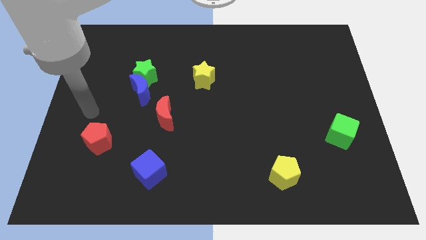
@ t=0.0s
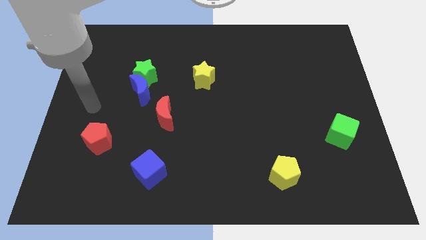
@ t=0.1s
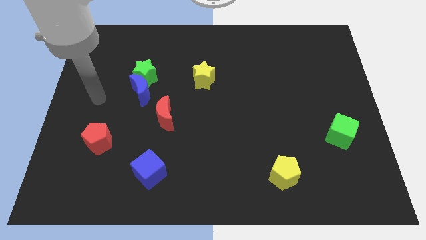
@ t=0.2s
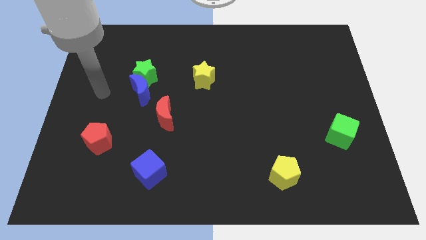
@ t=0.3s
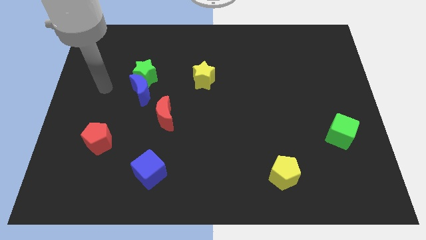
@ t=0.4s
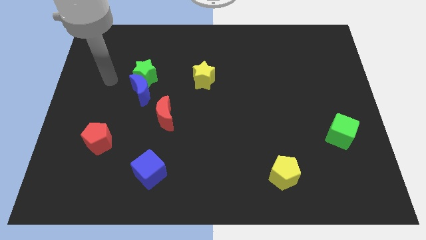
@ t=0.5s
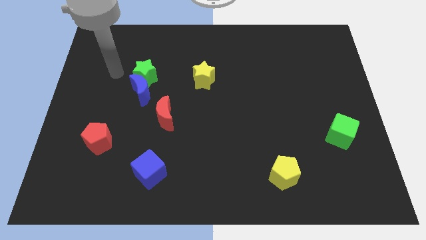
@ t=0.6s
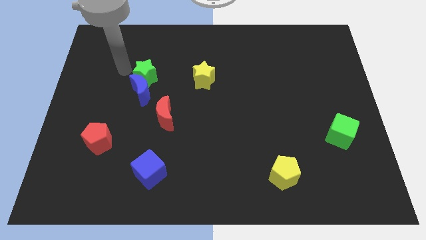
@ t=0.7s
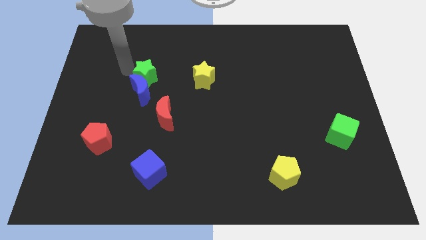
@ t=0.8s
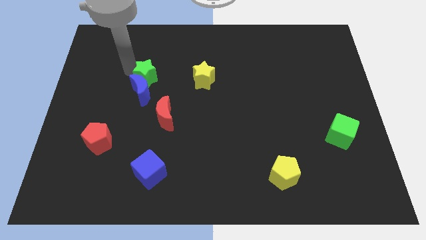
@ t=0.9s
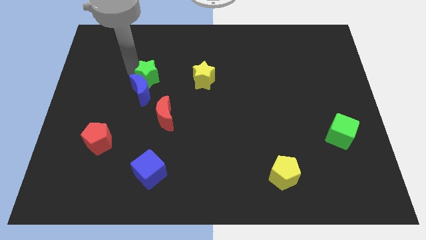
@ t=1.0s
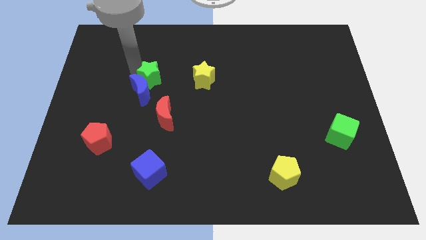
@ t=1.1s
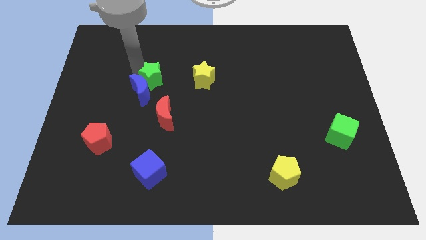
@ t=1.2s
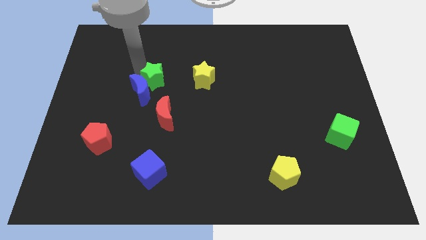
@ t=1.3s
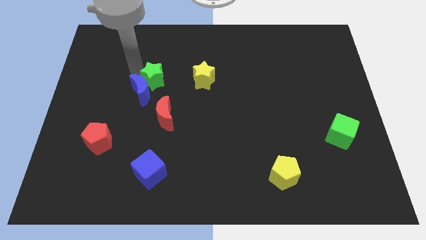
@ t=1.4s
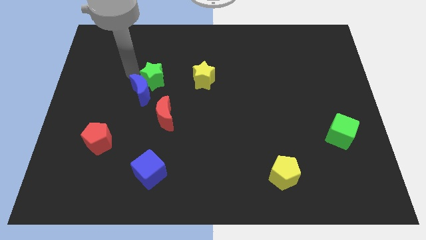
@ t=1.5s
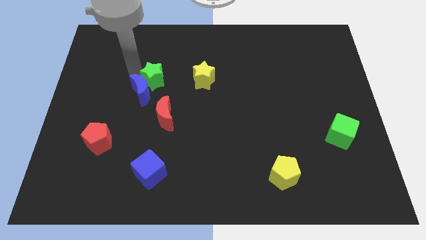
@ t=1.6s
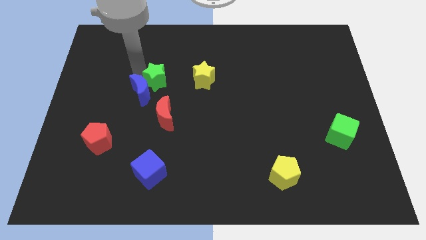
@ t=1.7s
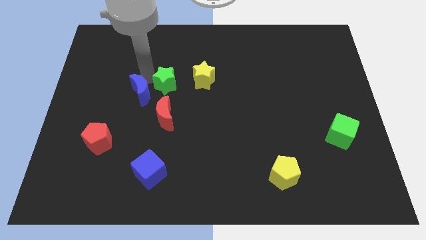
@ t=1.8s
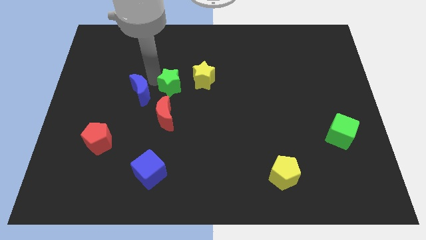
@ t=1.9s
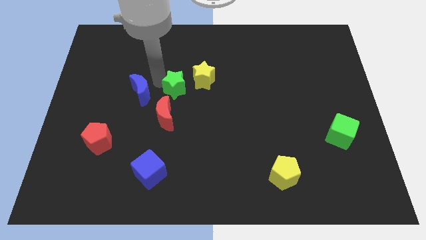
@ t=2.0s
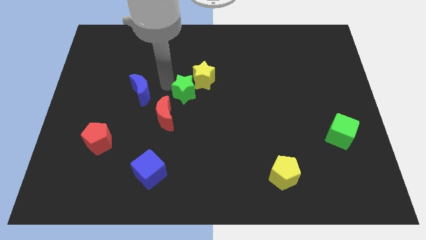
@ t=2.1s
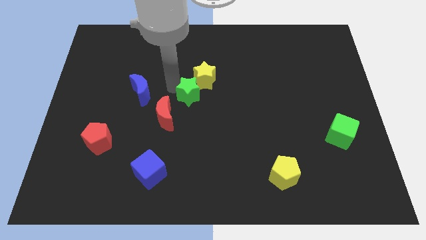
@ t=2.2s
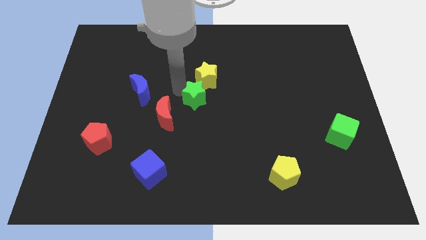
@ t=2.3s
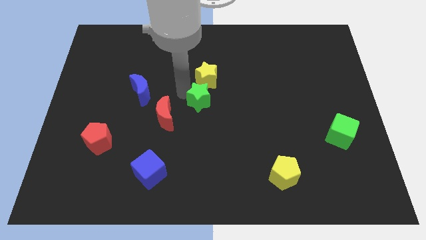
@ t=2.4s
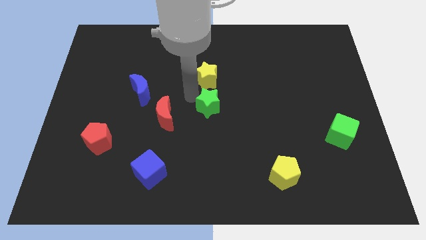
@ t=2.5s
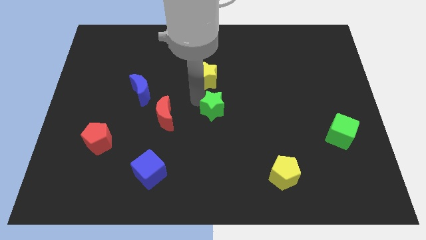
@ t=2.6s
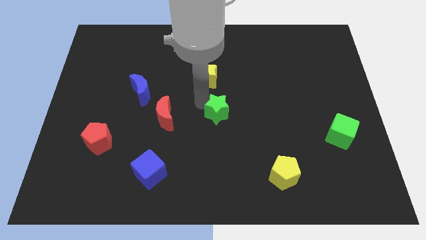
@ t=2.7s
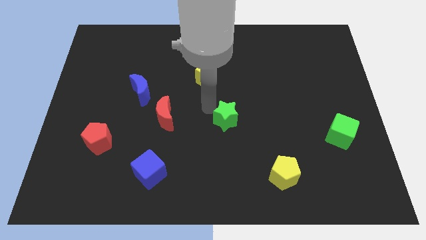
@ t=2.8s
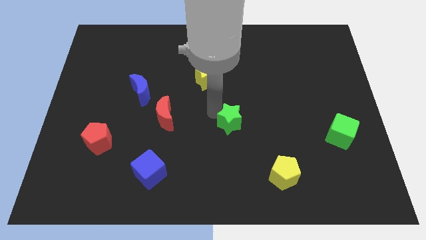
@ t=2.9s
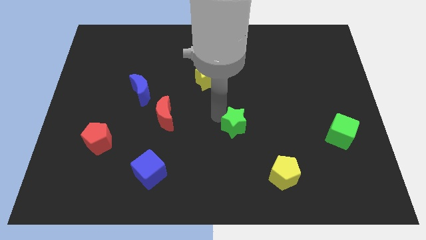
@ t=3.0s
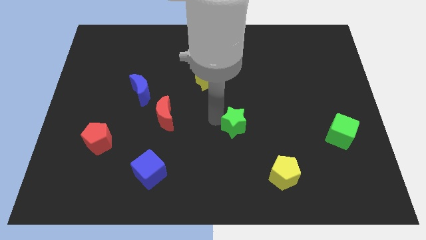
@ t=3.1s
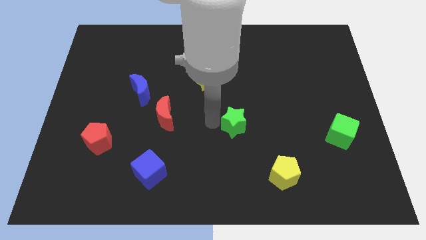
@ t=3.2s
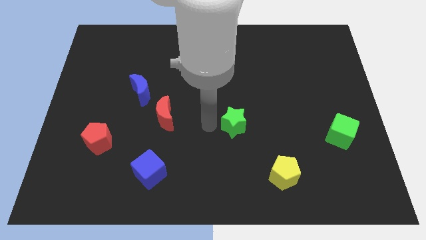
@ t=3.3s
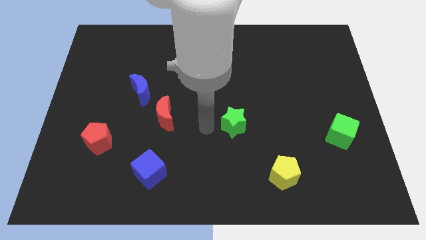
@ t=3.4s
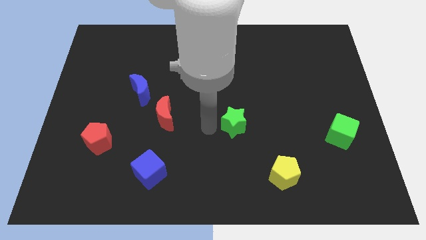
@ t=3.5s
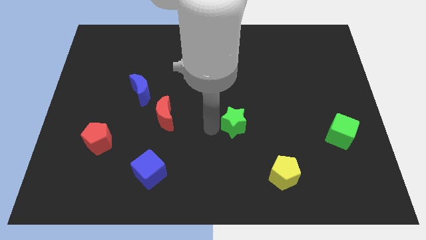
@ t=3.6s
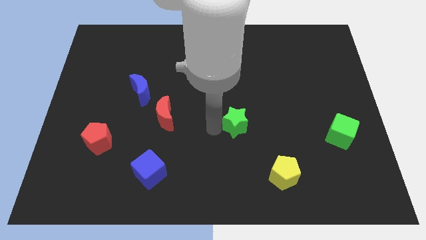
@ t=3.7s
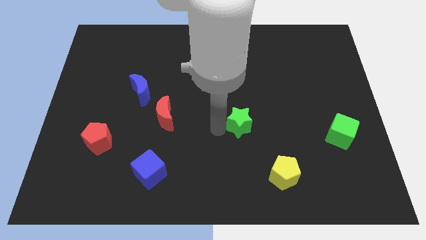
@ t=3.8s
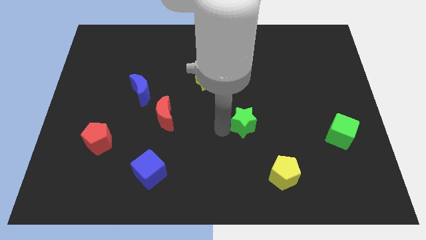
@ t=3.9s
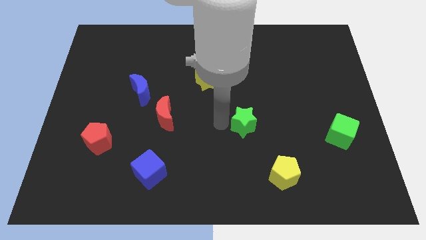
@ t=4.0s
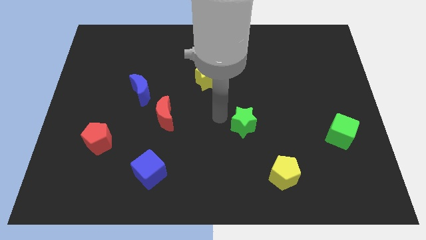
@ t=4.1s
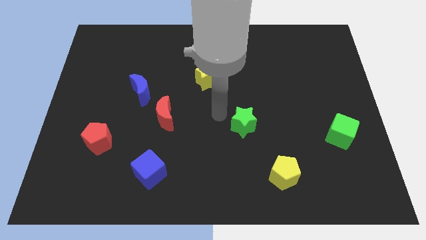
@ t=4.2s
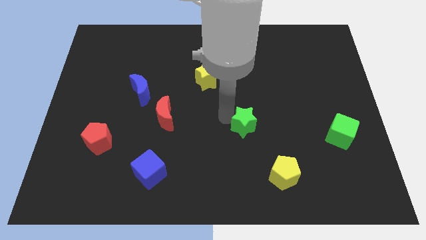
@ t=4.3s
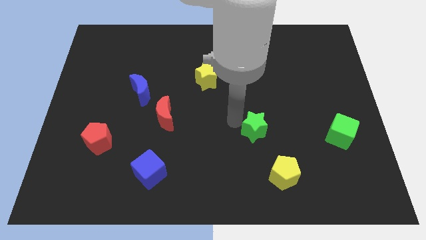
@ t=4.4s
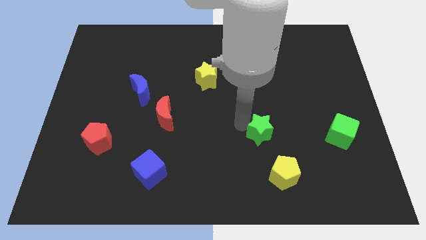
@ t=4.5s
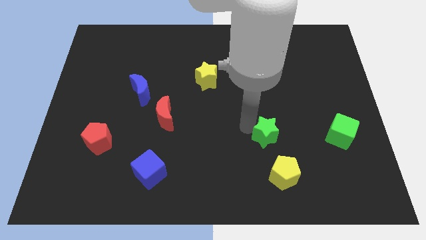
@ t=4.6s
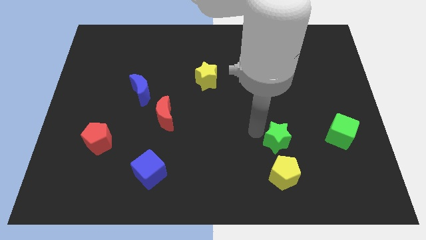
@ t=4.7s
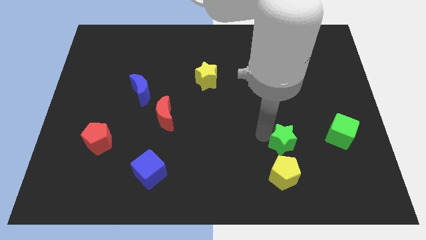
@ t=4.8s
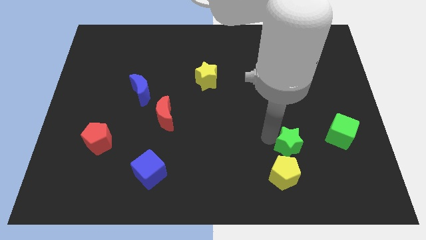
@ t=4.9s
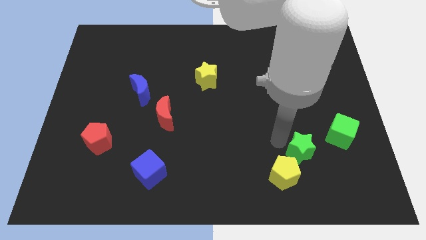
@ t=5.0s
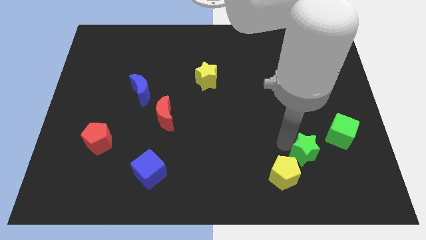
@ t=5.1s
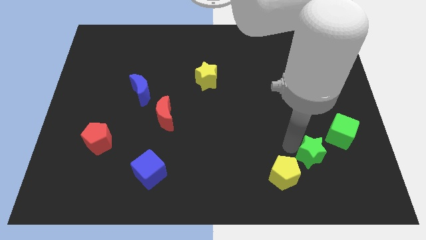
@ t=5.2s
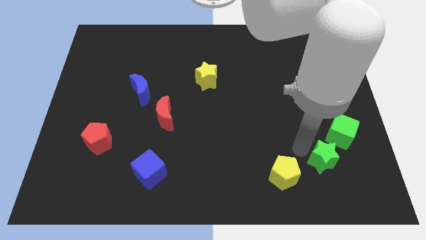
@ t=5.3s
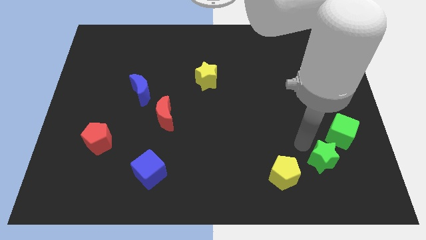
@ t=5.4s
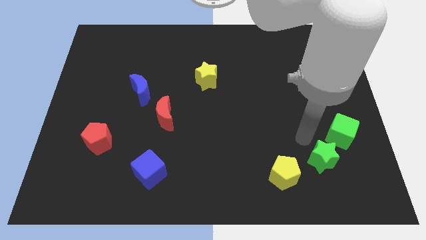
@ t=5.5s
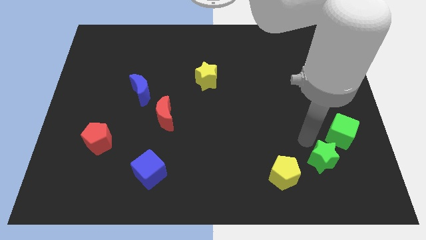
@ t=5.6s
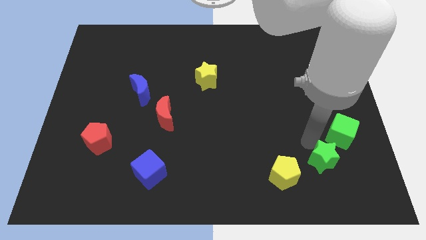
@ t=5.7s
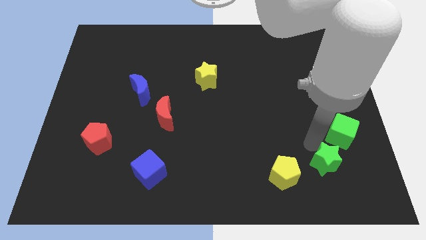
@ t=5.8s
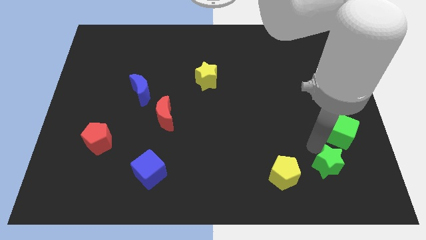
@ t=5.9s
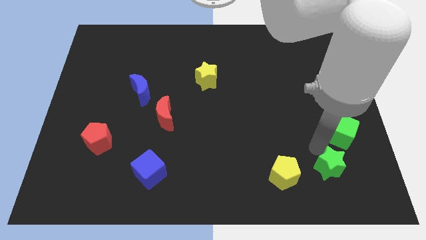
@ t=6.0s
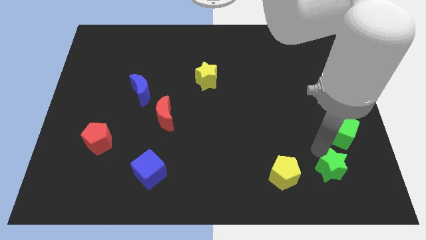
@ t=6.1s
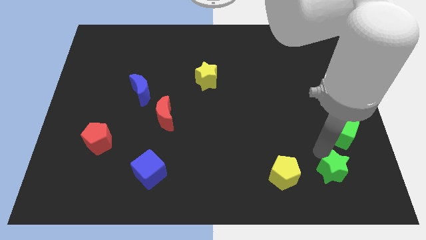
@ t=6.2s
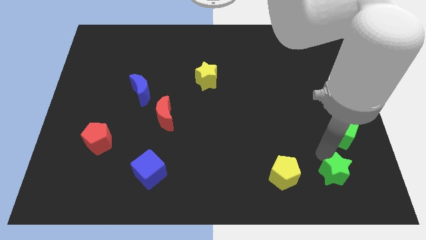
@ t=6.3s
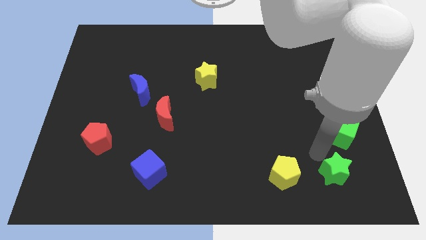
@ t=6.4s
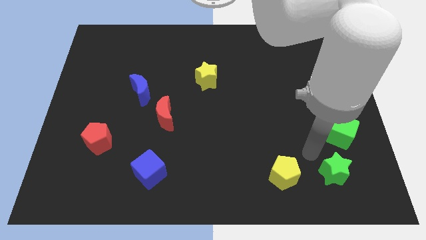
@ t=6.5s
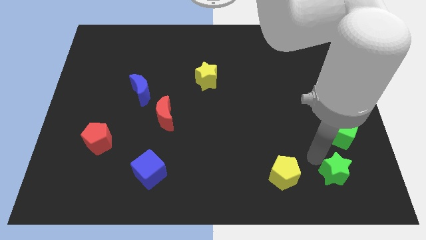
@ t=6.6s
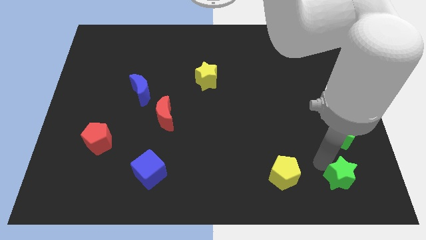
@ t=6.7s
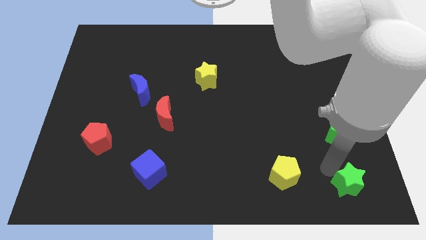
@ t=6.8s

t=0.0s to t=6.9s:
slide the green star to the bottom right
